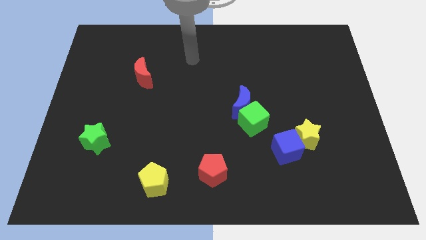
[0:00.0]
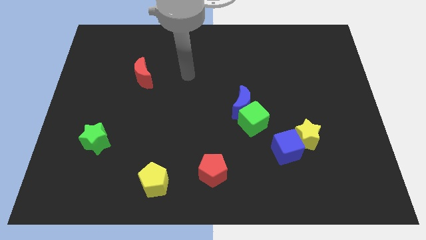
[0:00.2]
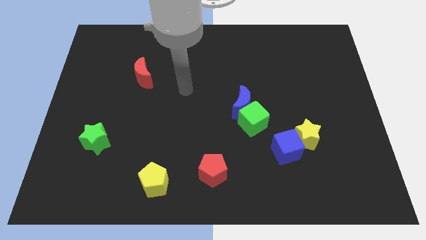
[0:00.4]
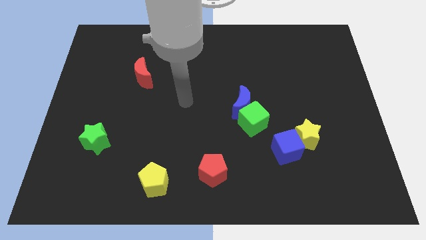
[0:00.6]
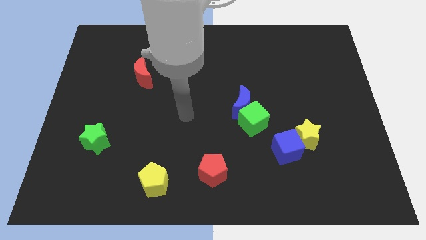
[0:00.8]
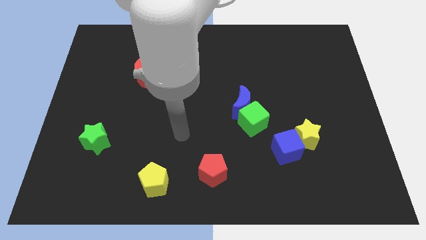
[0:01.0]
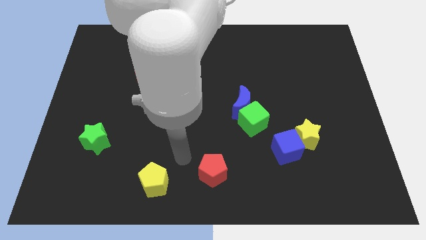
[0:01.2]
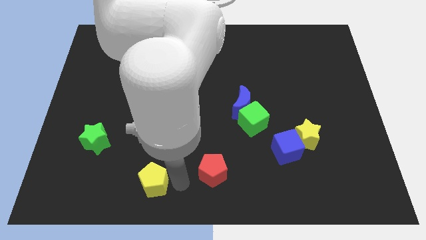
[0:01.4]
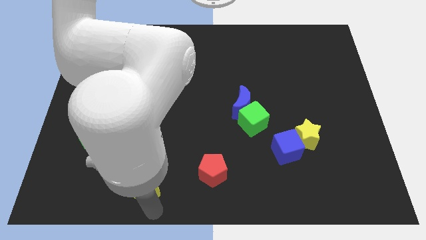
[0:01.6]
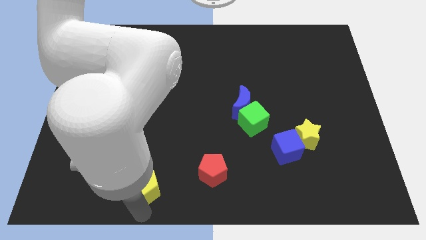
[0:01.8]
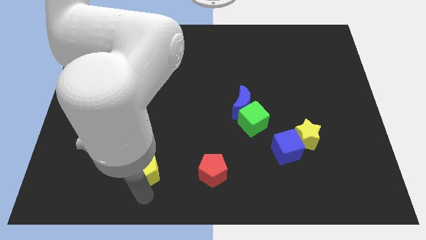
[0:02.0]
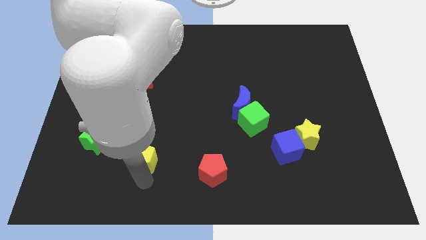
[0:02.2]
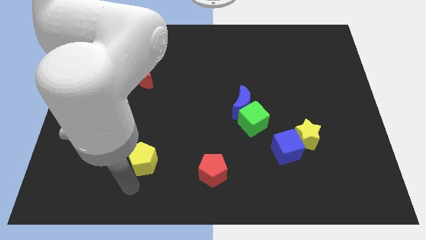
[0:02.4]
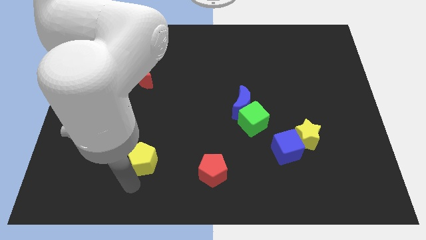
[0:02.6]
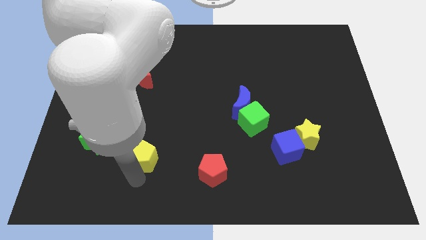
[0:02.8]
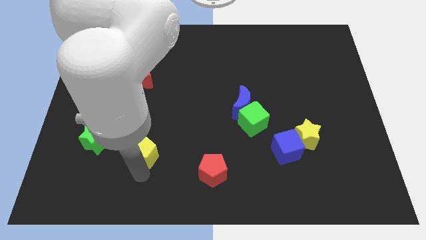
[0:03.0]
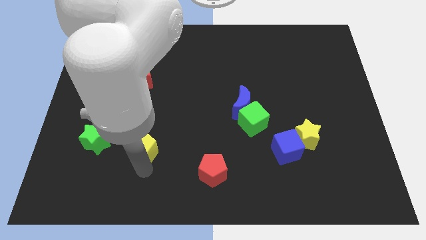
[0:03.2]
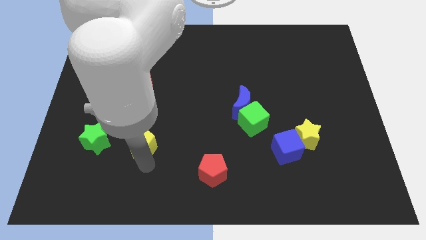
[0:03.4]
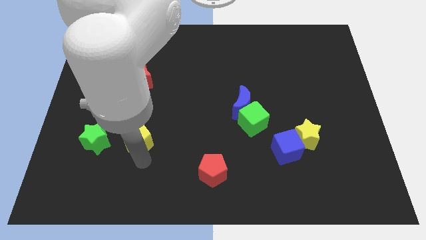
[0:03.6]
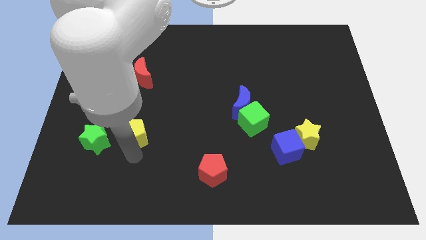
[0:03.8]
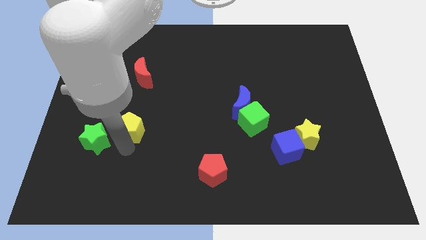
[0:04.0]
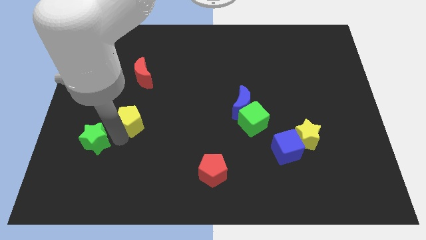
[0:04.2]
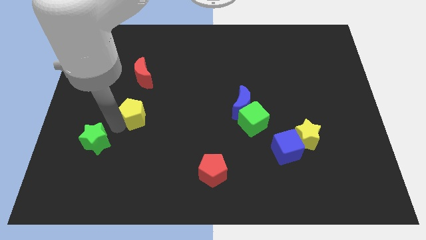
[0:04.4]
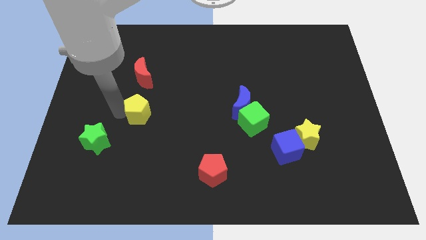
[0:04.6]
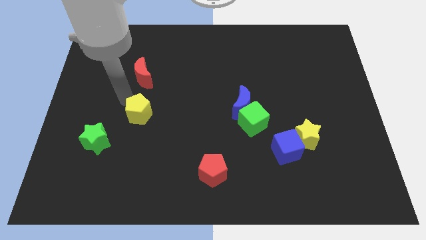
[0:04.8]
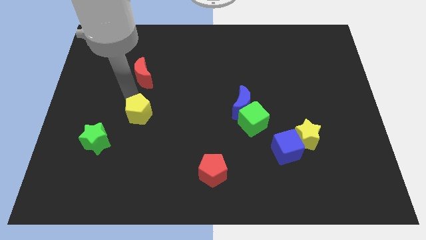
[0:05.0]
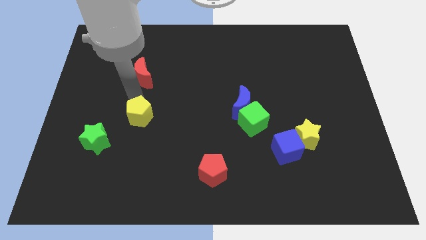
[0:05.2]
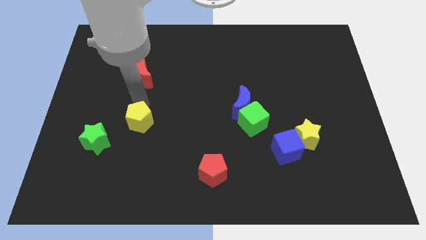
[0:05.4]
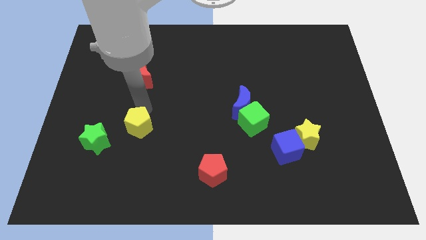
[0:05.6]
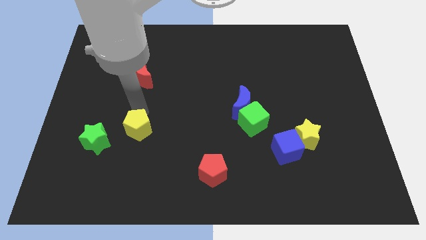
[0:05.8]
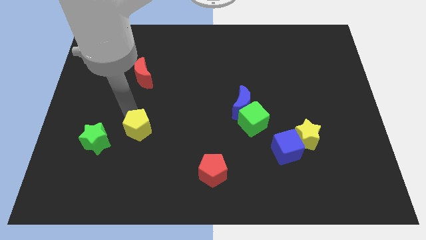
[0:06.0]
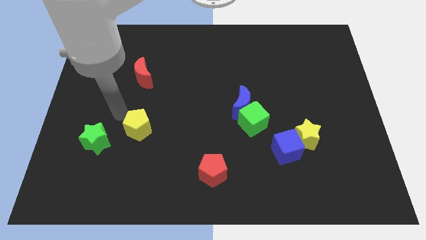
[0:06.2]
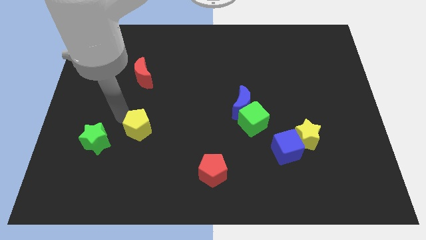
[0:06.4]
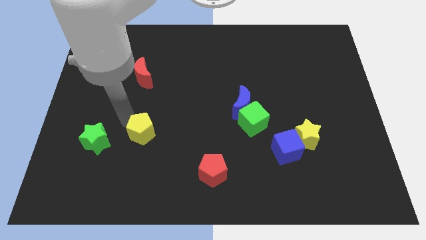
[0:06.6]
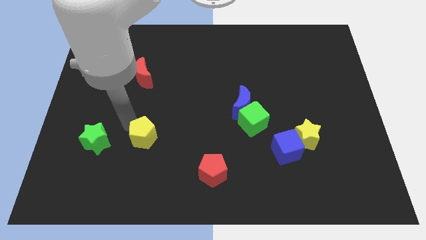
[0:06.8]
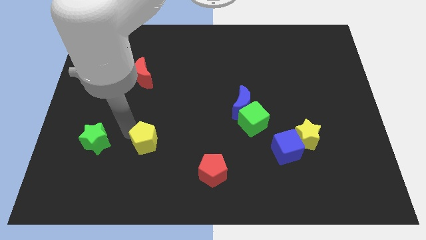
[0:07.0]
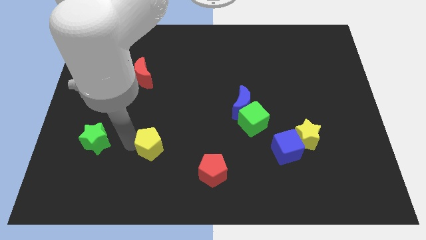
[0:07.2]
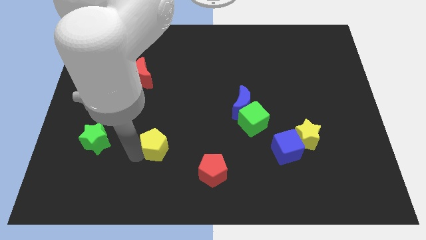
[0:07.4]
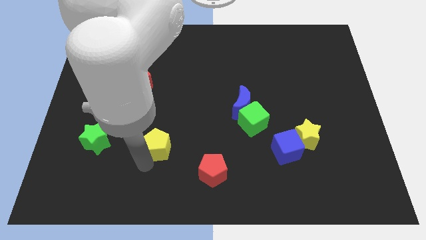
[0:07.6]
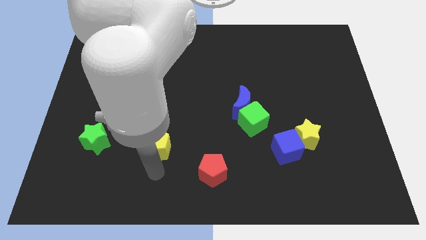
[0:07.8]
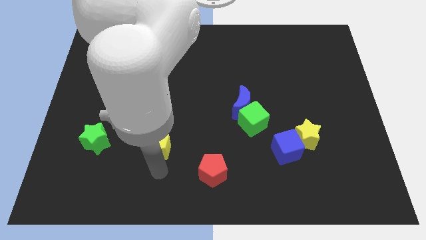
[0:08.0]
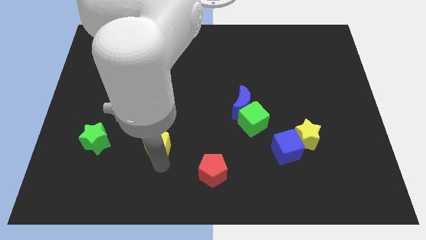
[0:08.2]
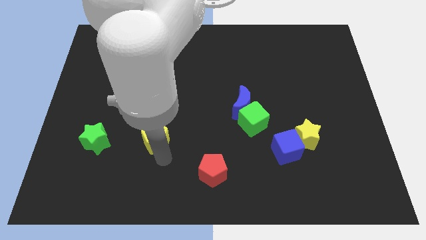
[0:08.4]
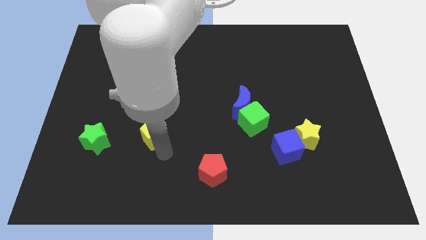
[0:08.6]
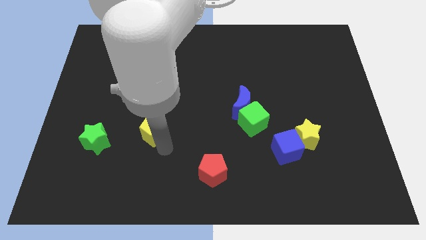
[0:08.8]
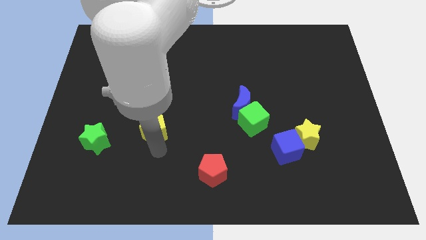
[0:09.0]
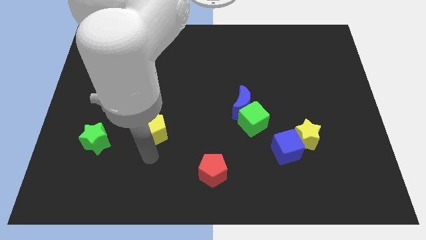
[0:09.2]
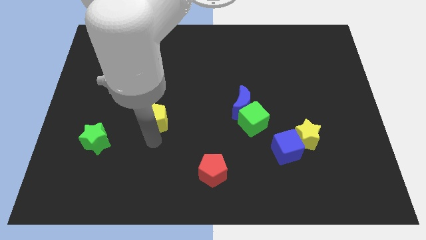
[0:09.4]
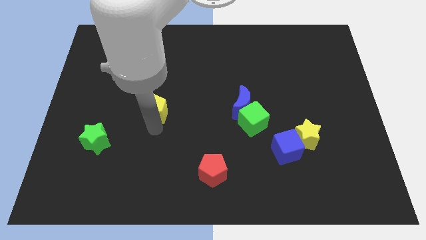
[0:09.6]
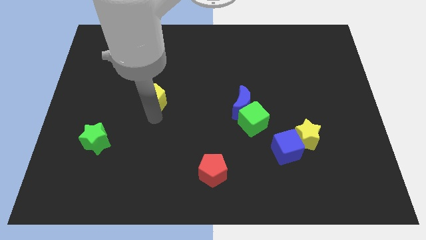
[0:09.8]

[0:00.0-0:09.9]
move the yellow pentagon up

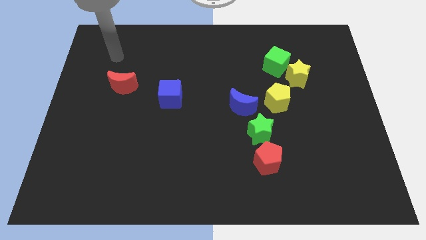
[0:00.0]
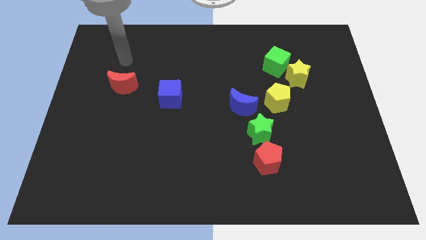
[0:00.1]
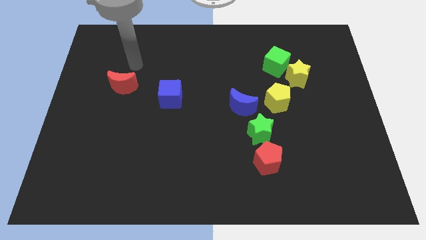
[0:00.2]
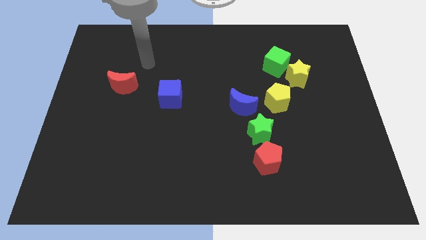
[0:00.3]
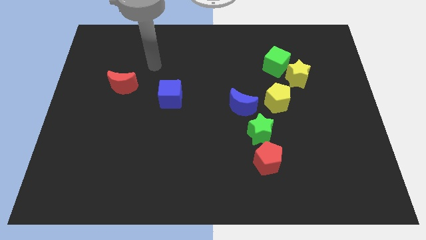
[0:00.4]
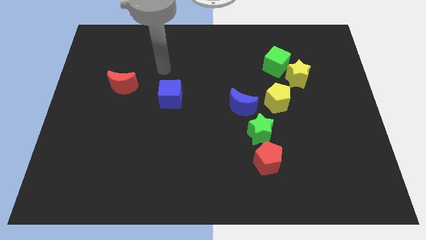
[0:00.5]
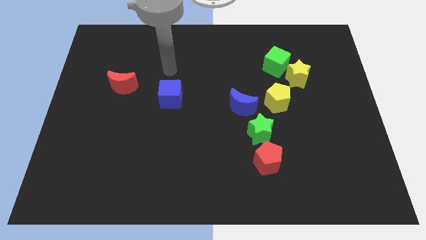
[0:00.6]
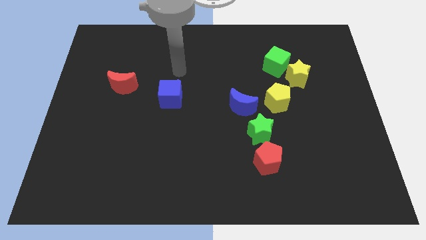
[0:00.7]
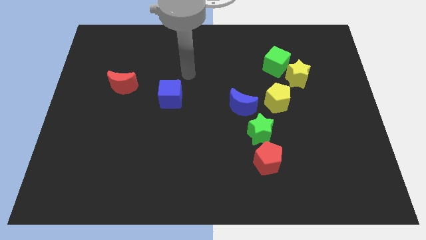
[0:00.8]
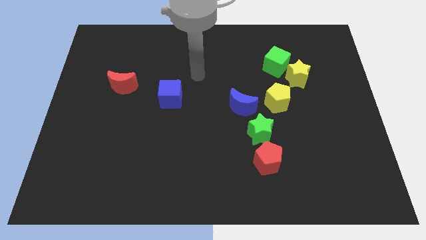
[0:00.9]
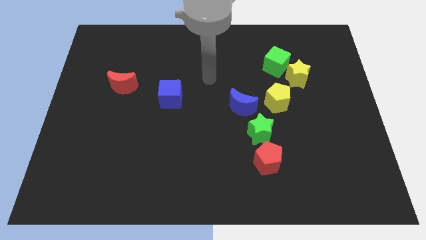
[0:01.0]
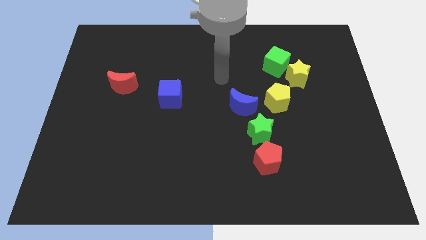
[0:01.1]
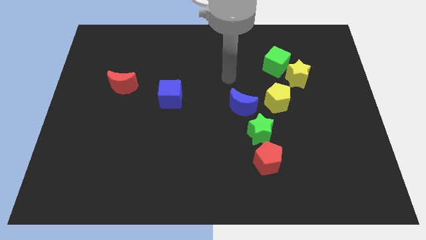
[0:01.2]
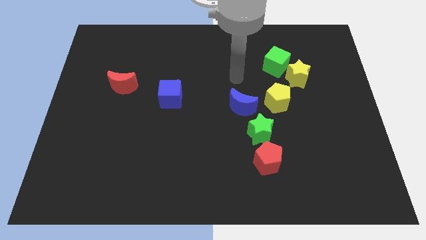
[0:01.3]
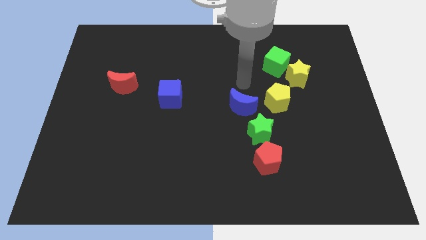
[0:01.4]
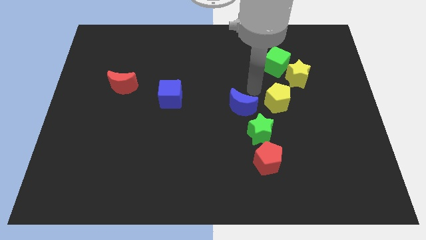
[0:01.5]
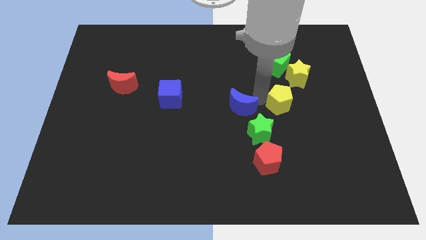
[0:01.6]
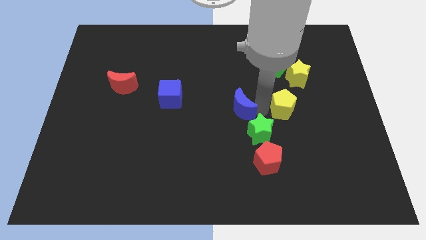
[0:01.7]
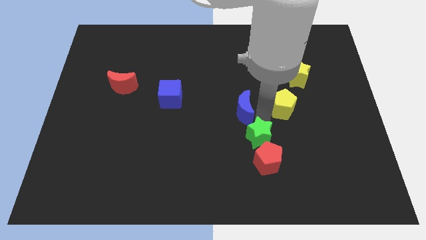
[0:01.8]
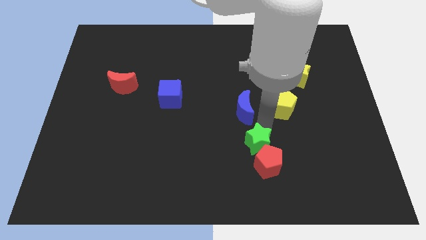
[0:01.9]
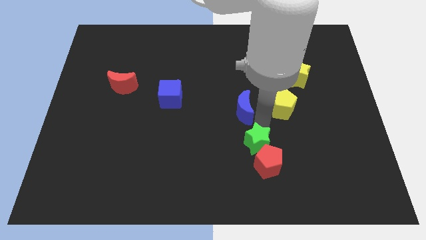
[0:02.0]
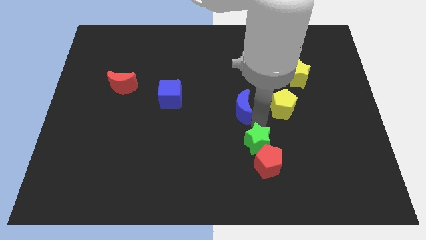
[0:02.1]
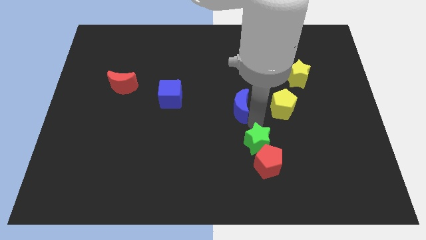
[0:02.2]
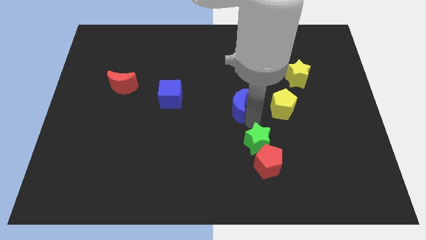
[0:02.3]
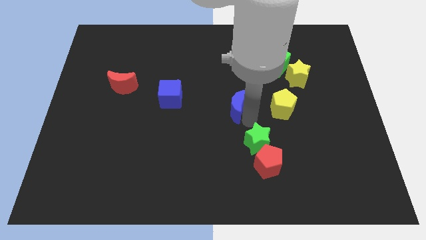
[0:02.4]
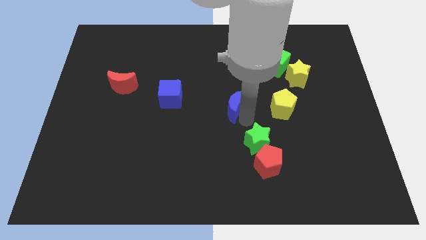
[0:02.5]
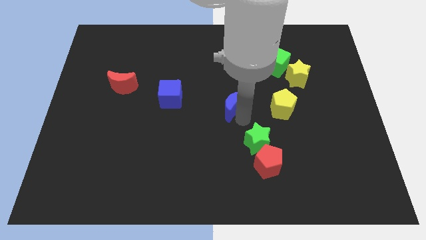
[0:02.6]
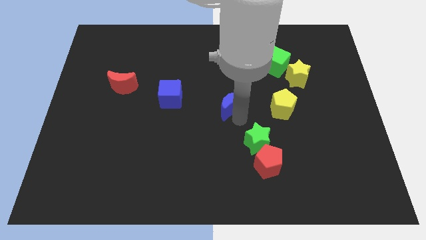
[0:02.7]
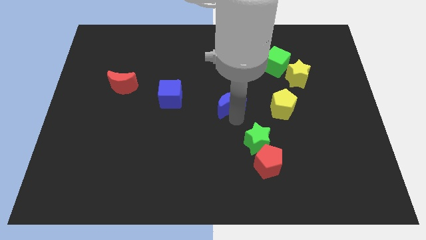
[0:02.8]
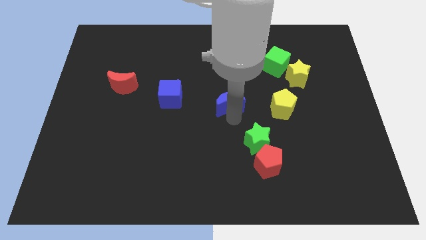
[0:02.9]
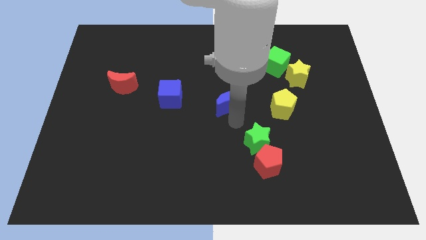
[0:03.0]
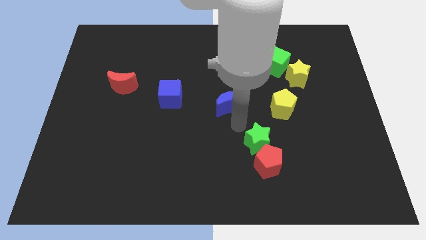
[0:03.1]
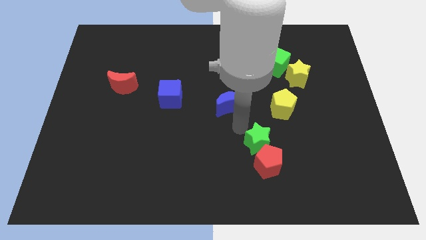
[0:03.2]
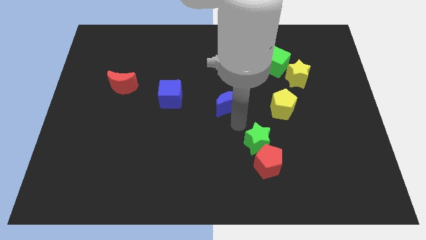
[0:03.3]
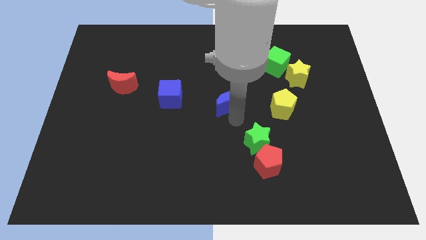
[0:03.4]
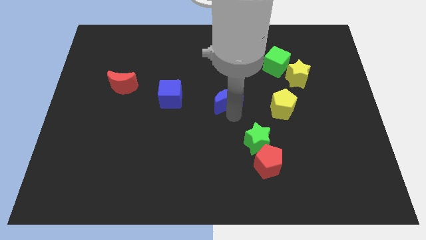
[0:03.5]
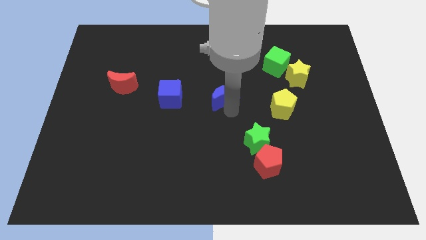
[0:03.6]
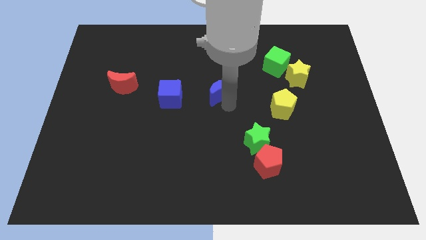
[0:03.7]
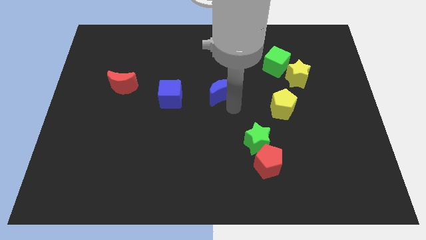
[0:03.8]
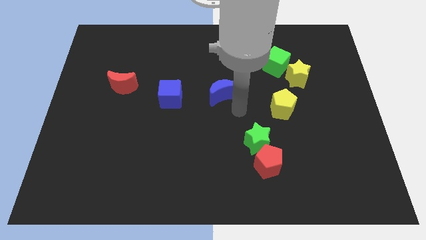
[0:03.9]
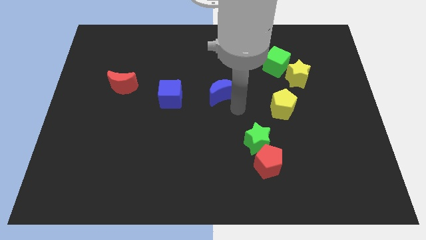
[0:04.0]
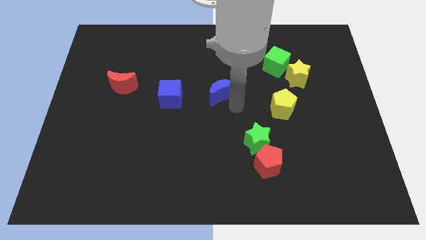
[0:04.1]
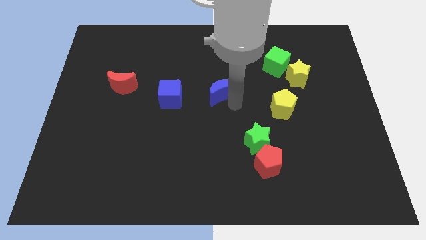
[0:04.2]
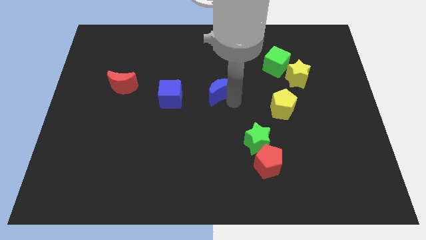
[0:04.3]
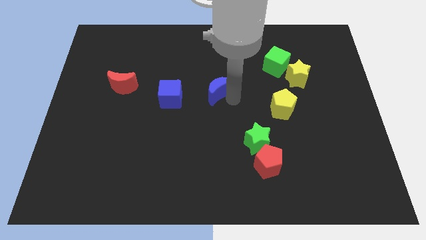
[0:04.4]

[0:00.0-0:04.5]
slightly move the blue moon up and then left
